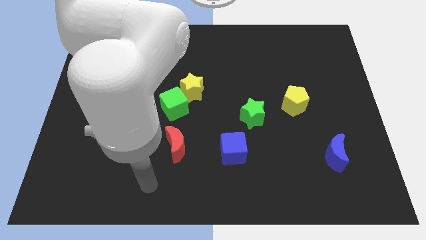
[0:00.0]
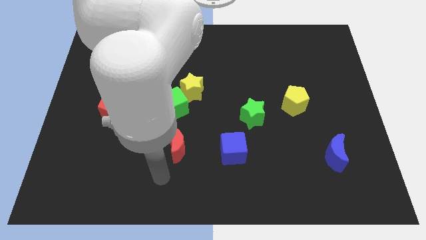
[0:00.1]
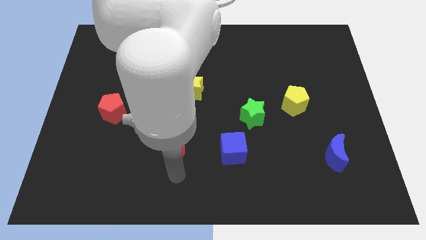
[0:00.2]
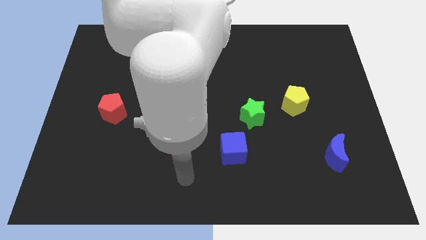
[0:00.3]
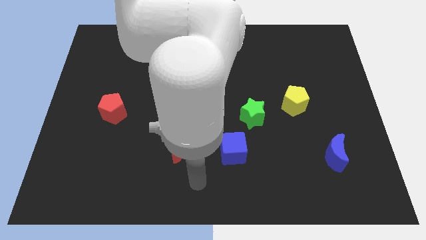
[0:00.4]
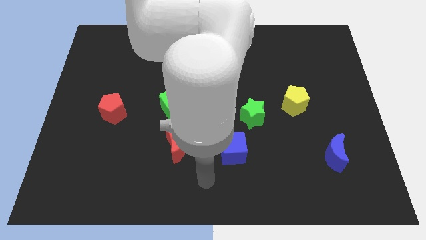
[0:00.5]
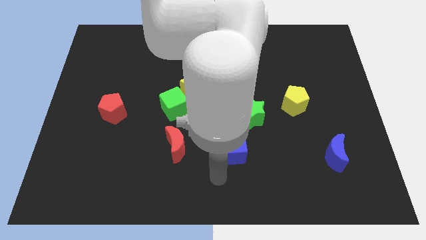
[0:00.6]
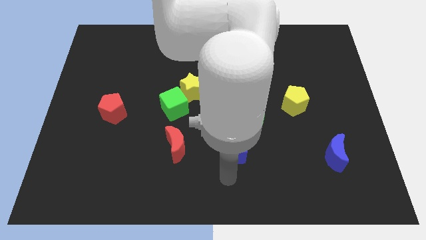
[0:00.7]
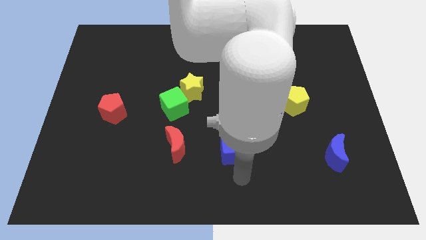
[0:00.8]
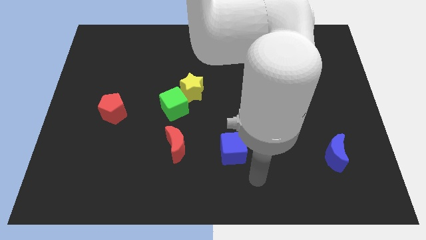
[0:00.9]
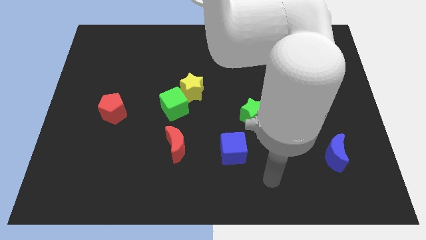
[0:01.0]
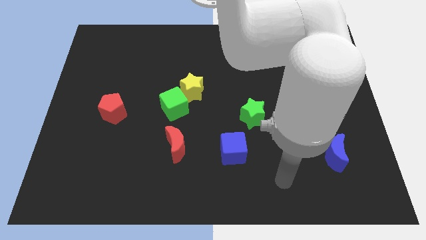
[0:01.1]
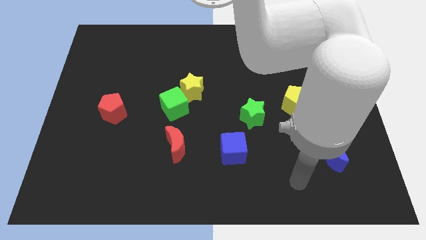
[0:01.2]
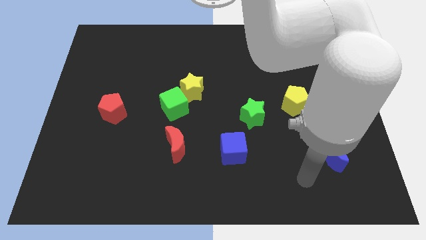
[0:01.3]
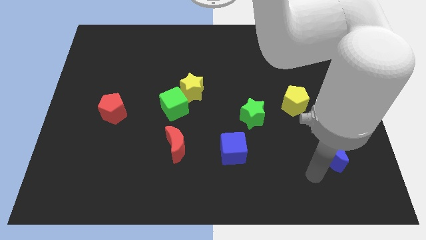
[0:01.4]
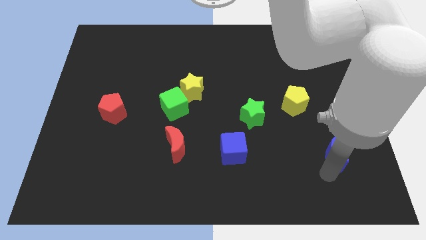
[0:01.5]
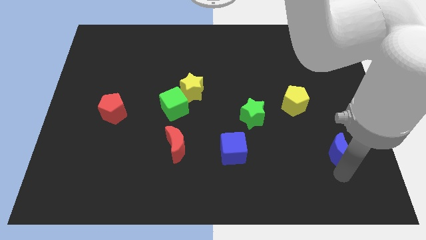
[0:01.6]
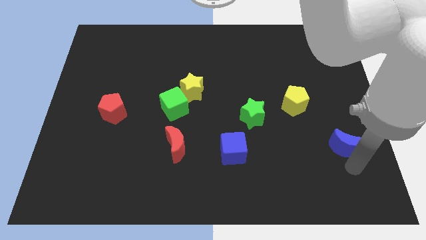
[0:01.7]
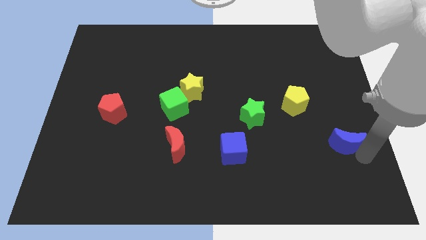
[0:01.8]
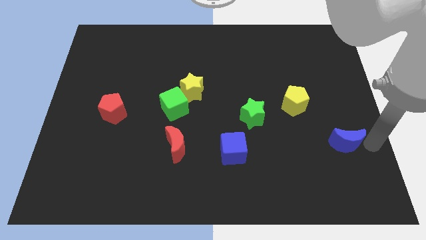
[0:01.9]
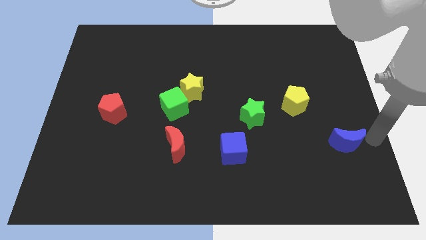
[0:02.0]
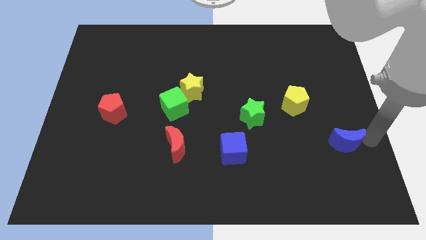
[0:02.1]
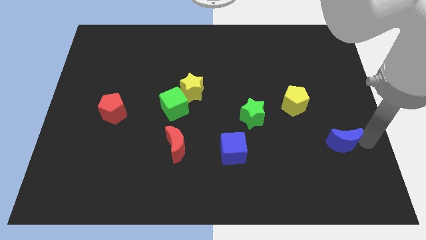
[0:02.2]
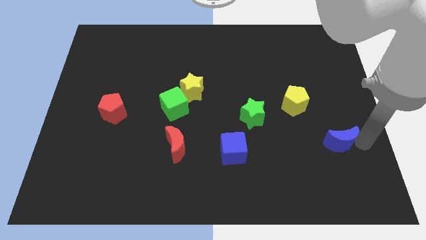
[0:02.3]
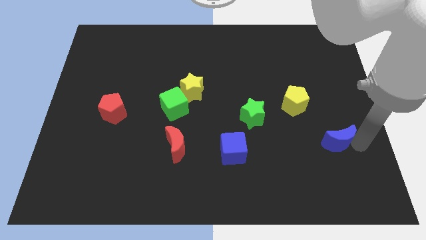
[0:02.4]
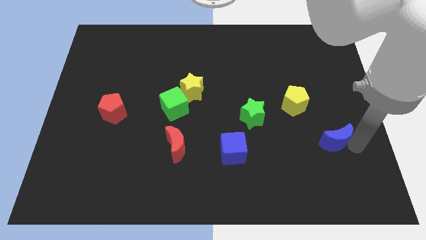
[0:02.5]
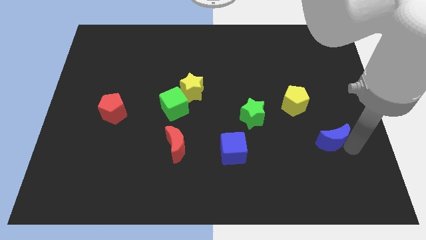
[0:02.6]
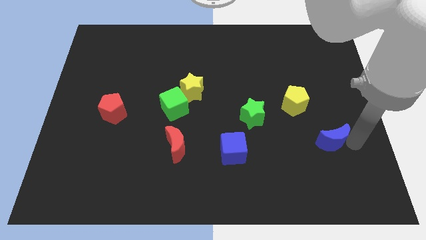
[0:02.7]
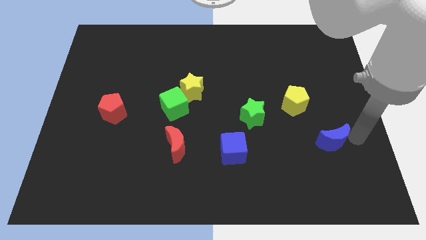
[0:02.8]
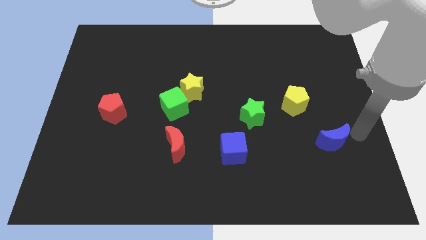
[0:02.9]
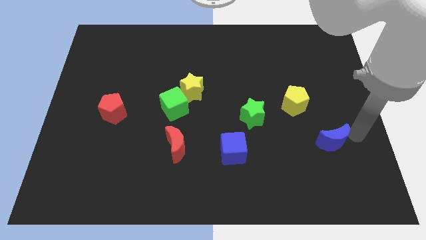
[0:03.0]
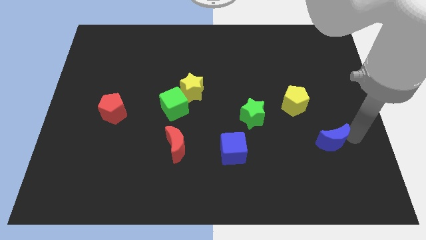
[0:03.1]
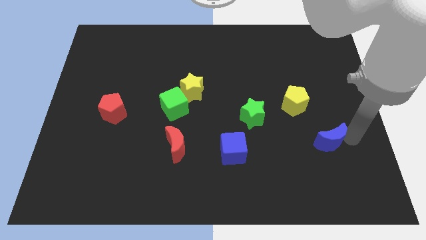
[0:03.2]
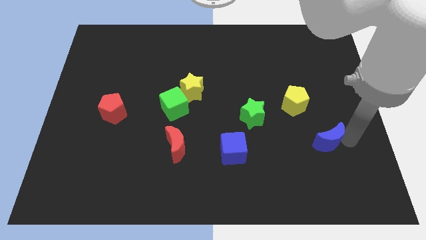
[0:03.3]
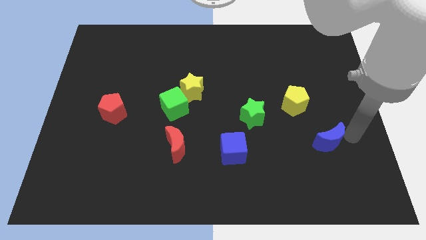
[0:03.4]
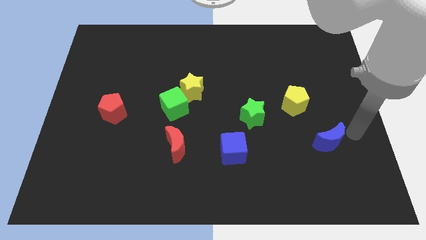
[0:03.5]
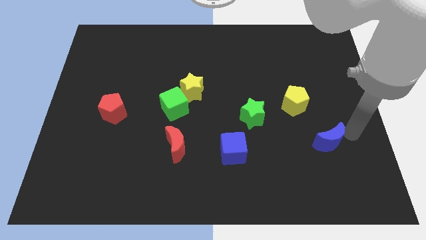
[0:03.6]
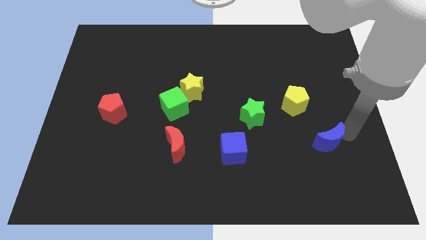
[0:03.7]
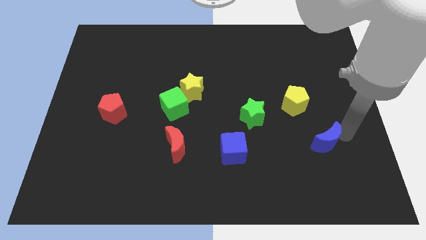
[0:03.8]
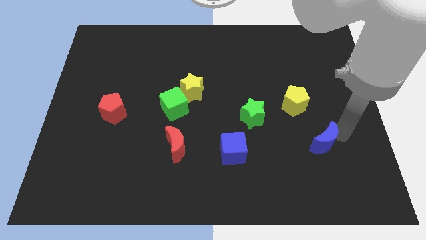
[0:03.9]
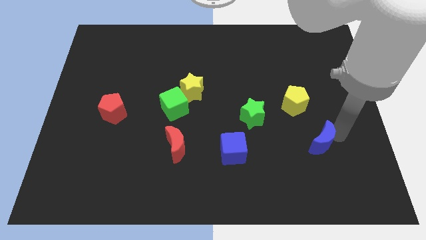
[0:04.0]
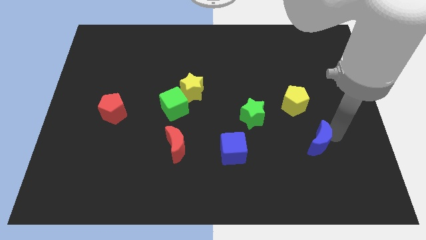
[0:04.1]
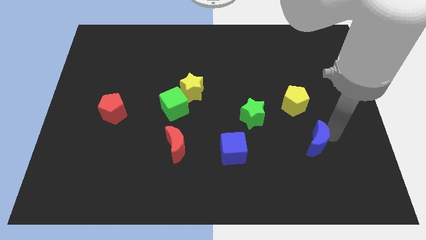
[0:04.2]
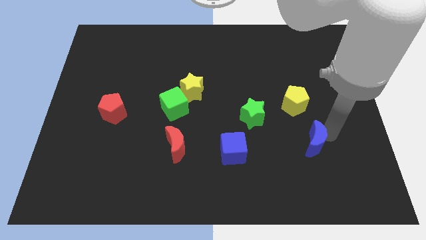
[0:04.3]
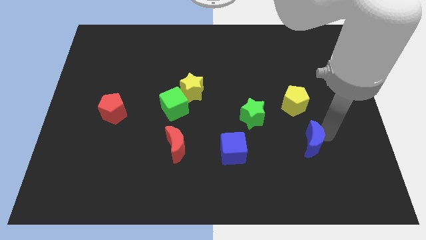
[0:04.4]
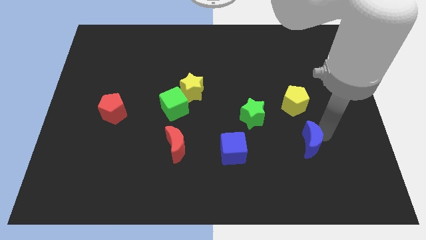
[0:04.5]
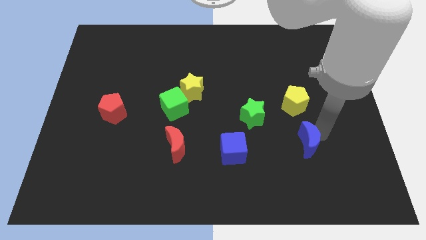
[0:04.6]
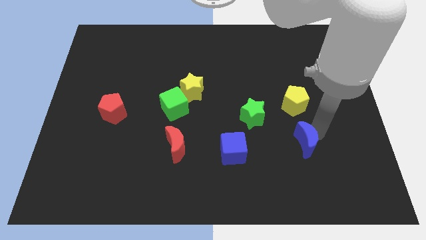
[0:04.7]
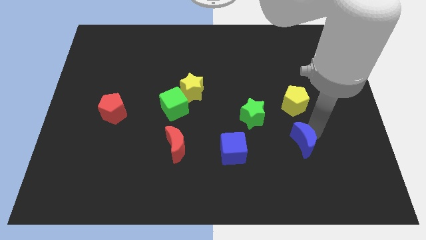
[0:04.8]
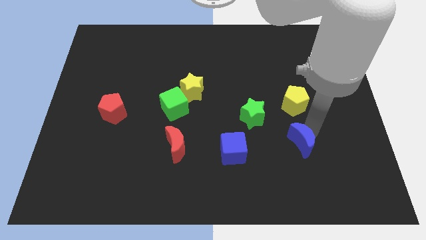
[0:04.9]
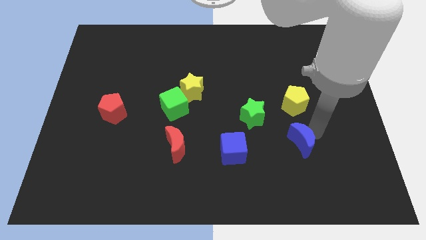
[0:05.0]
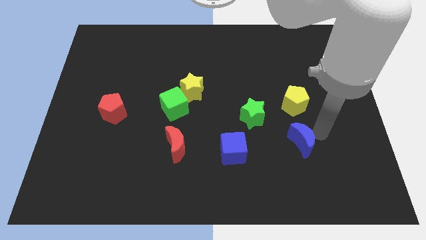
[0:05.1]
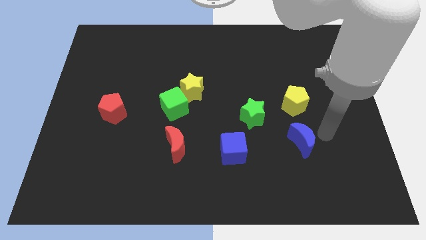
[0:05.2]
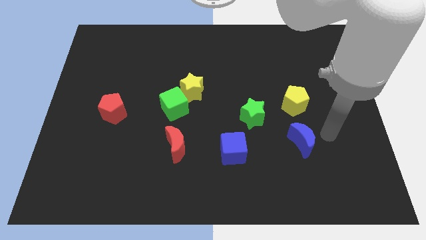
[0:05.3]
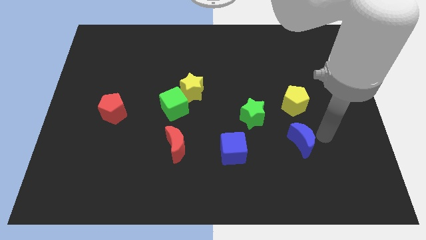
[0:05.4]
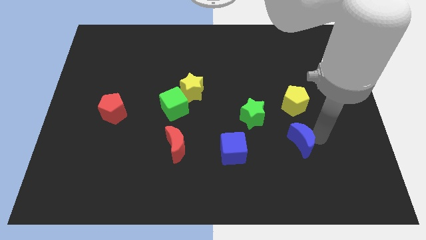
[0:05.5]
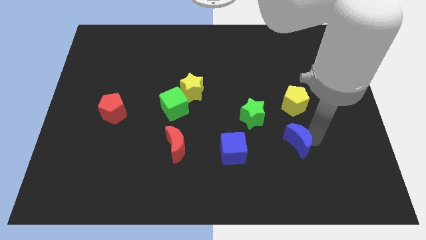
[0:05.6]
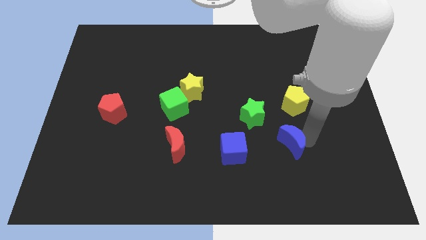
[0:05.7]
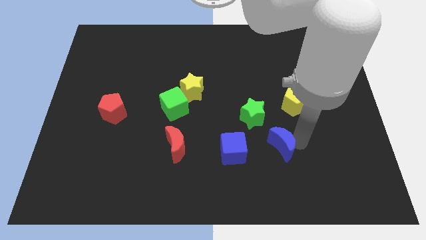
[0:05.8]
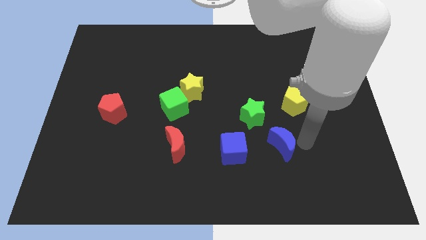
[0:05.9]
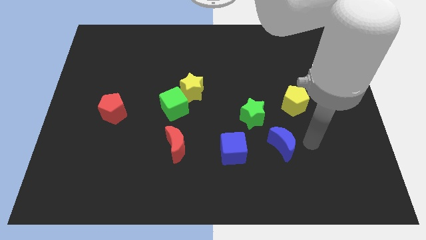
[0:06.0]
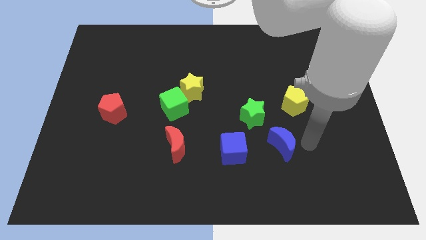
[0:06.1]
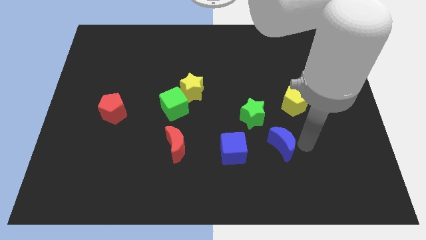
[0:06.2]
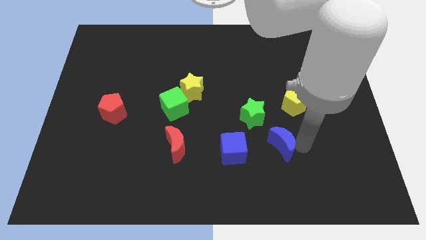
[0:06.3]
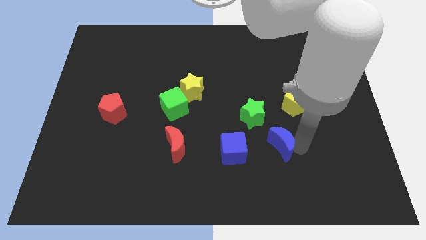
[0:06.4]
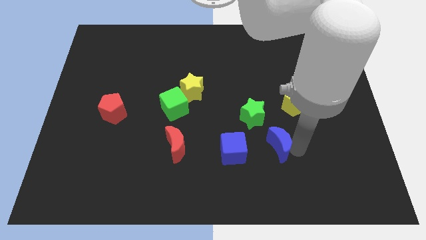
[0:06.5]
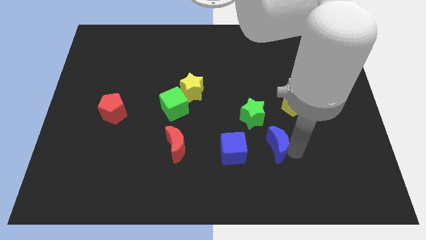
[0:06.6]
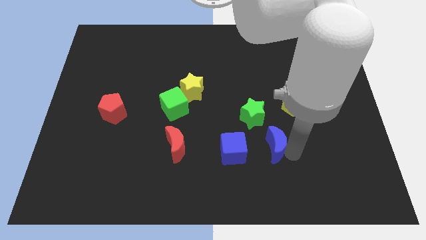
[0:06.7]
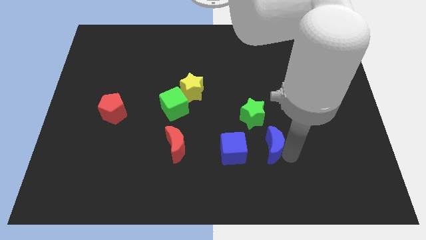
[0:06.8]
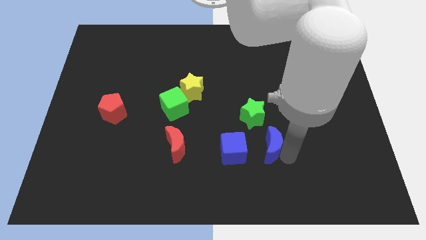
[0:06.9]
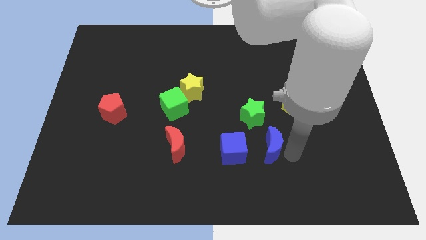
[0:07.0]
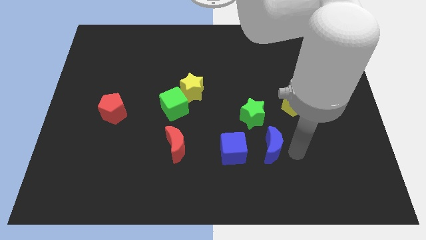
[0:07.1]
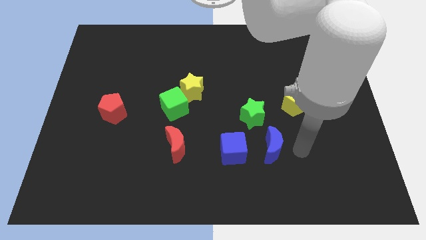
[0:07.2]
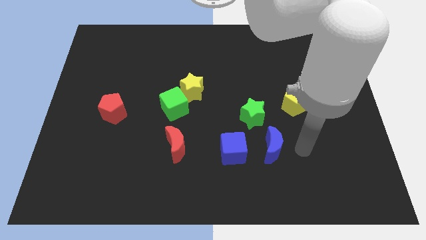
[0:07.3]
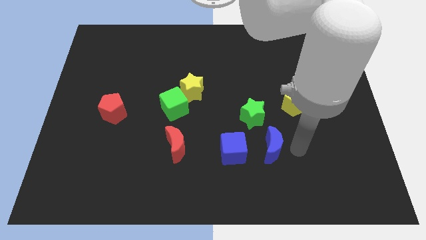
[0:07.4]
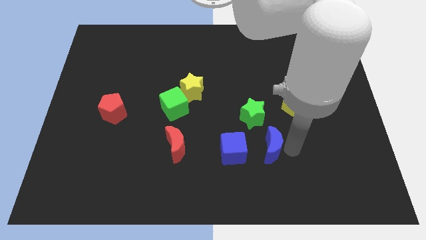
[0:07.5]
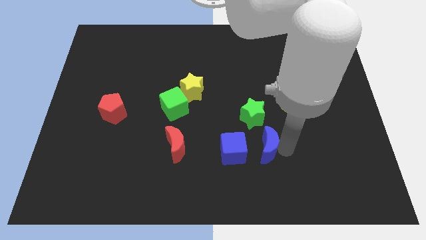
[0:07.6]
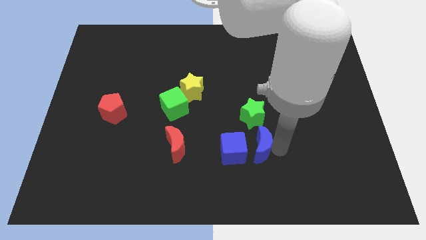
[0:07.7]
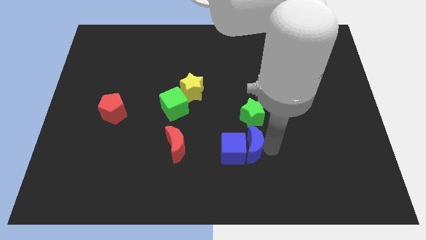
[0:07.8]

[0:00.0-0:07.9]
put the blue moon towards the blue cube
